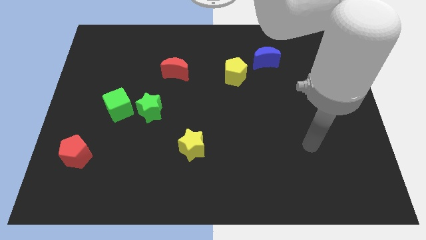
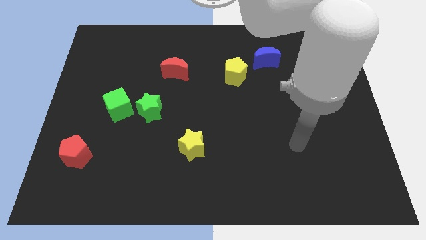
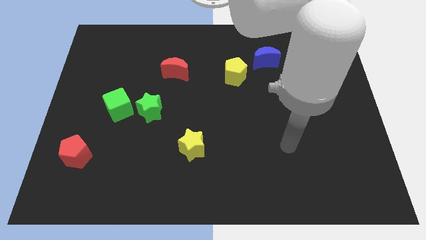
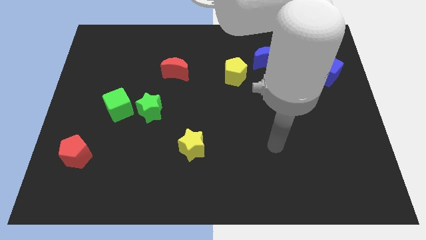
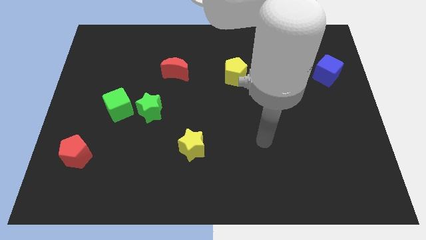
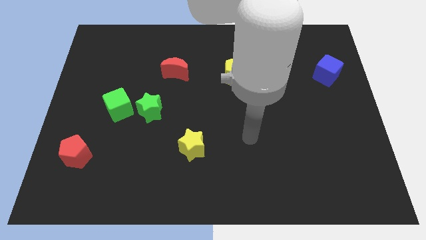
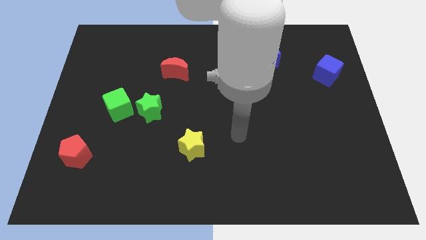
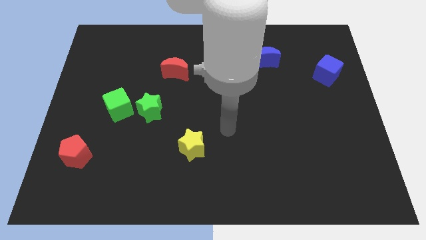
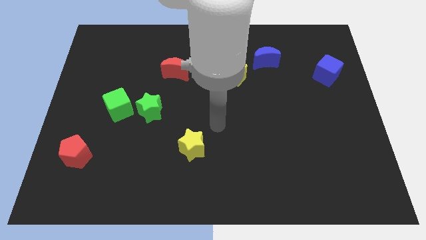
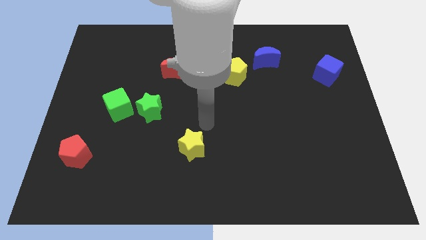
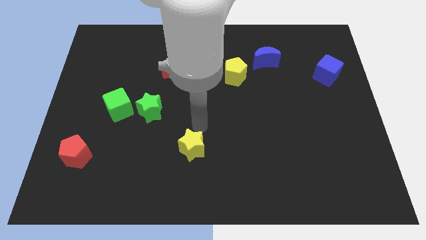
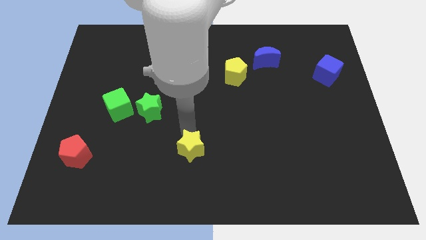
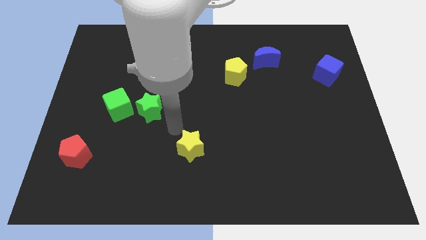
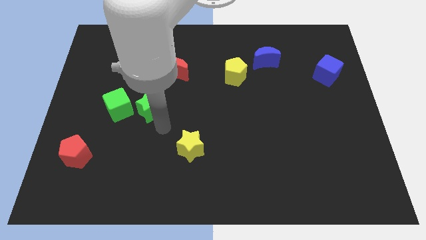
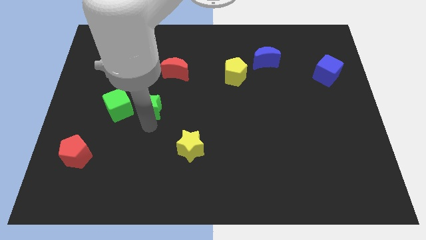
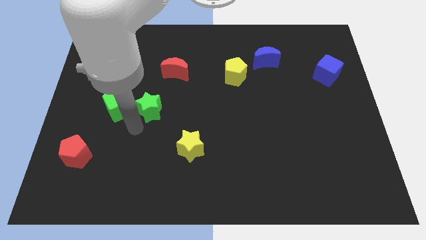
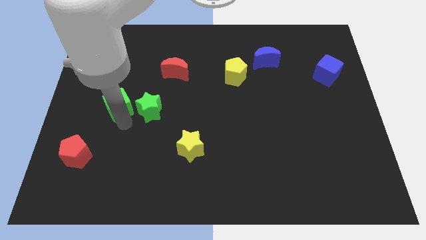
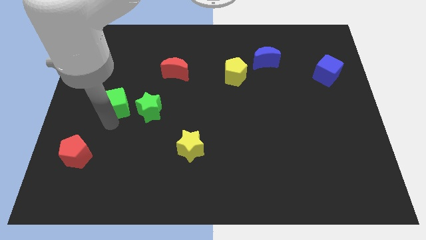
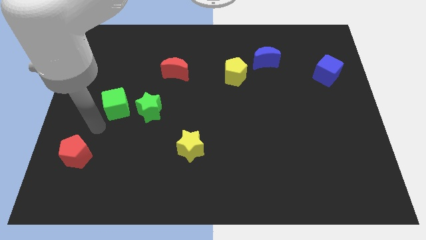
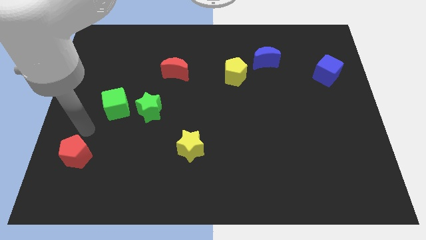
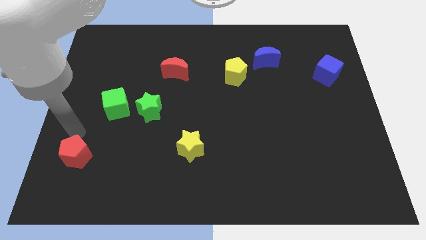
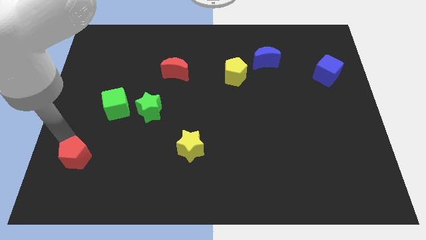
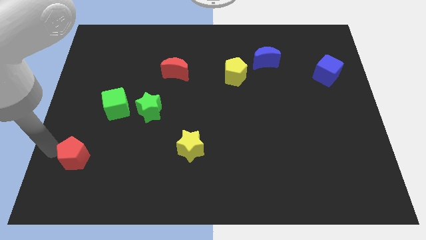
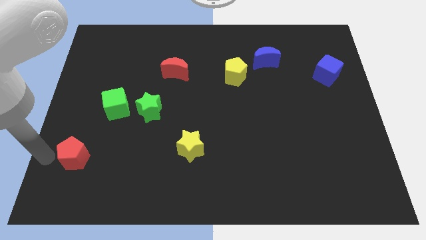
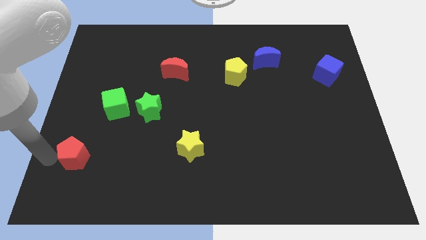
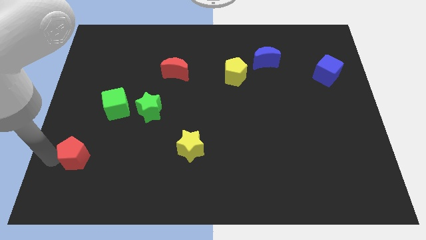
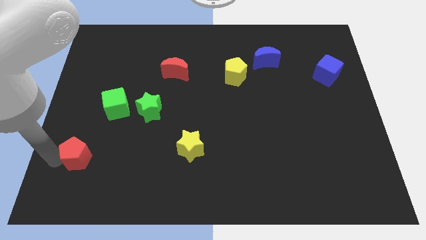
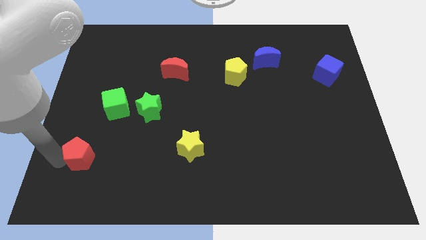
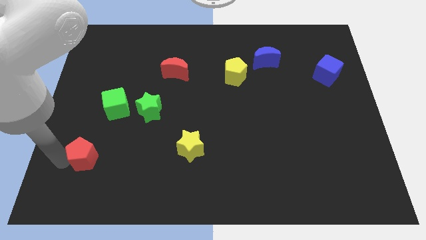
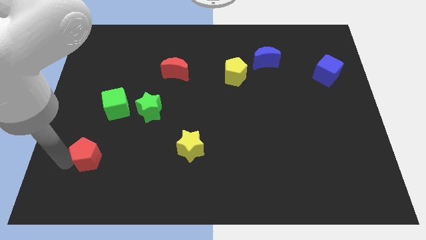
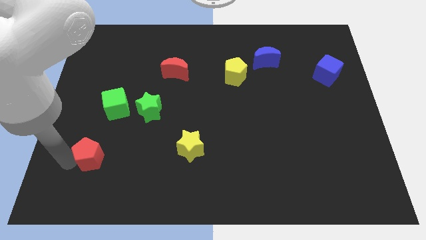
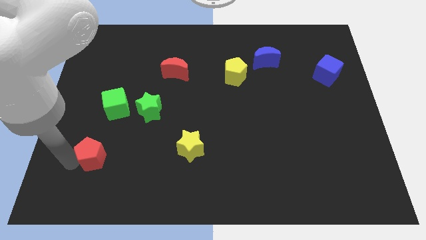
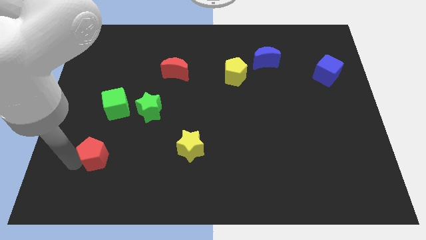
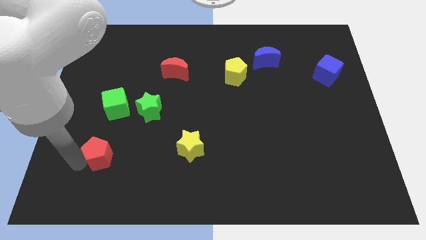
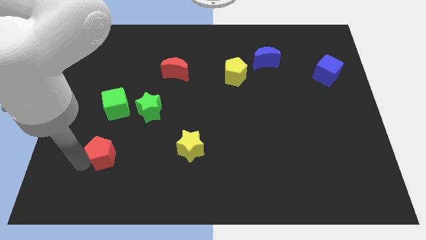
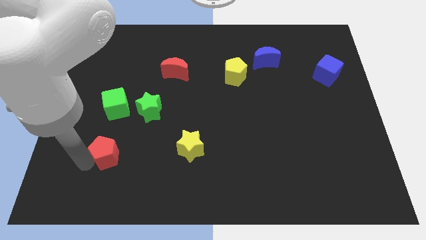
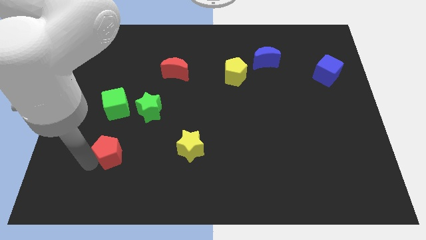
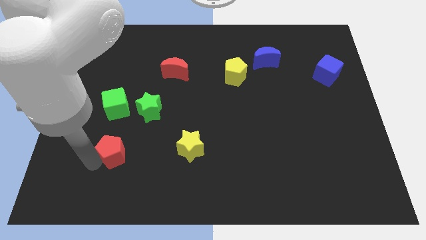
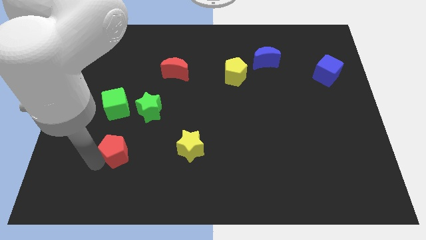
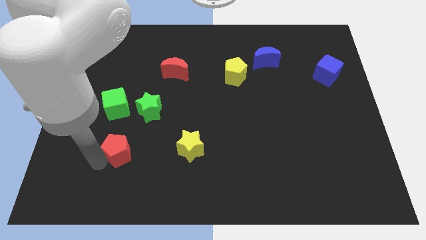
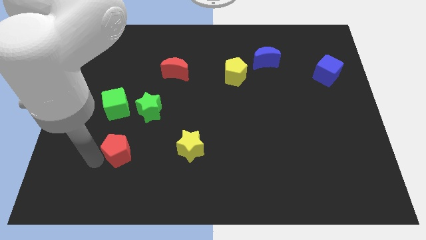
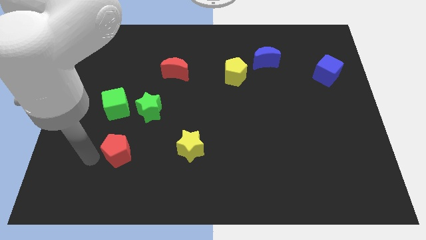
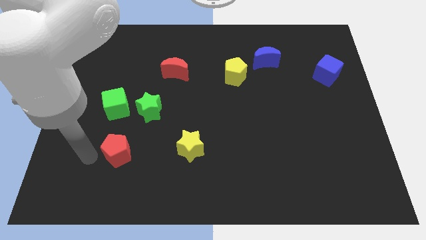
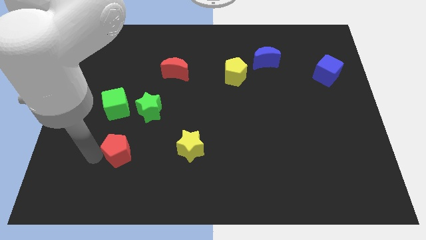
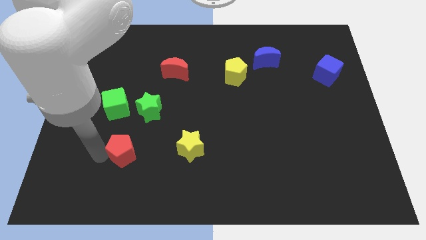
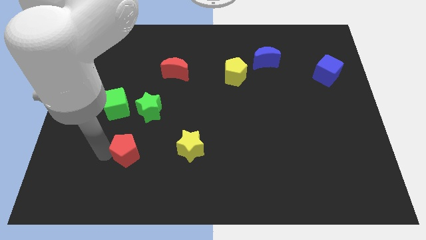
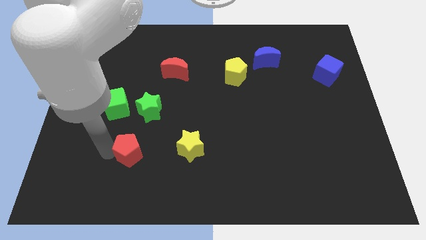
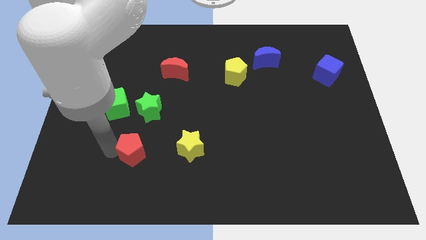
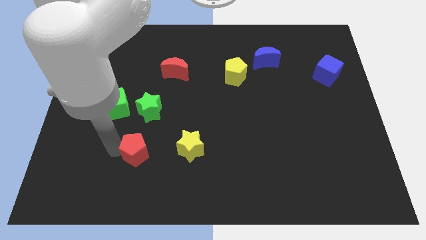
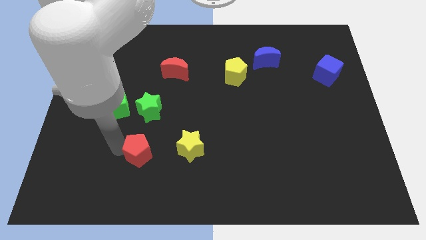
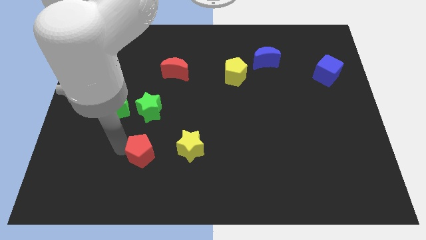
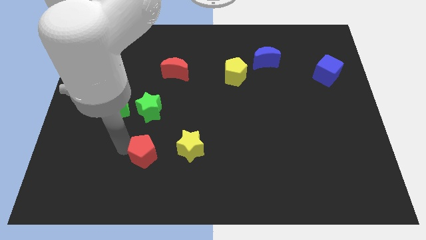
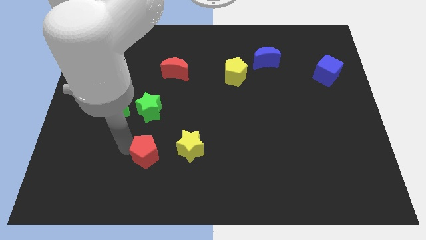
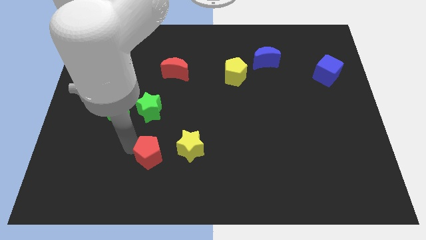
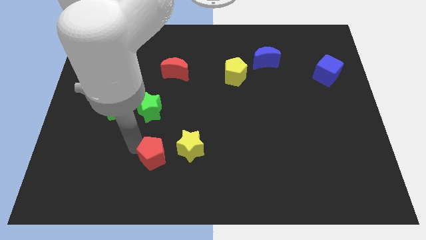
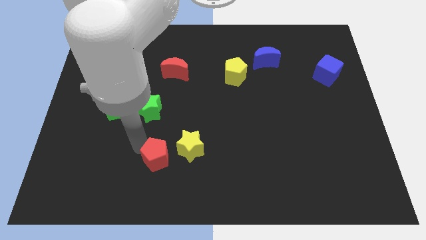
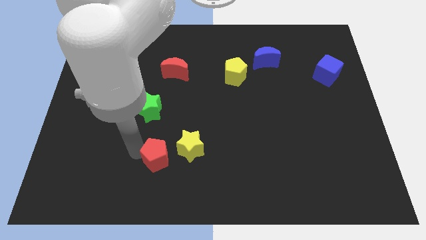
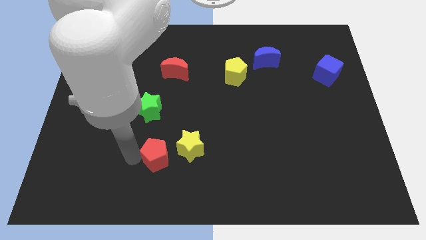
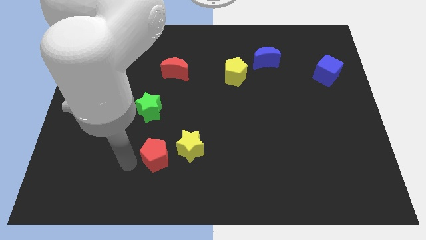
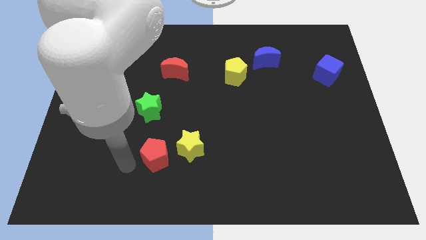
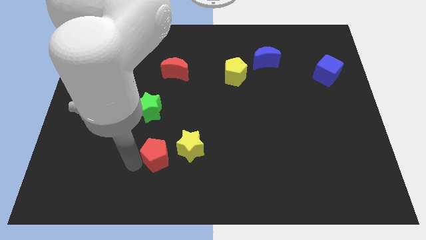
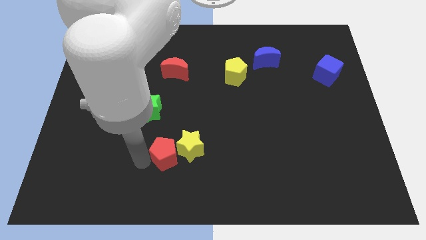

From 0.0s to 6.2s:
move the red pentagon to the yellow star

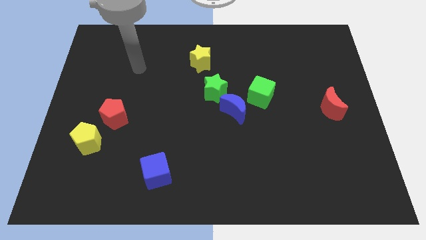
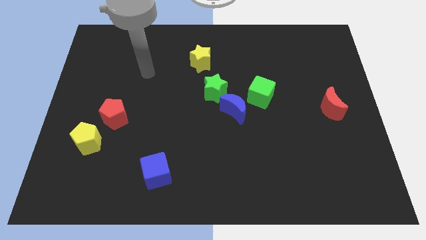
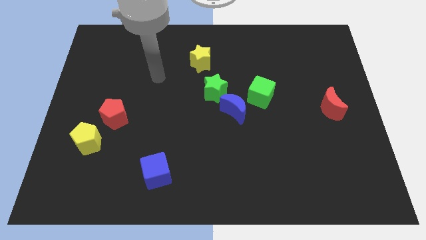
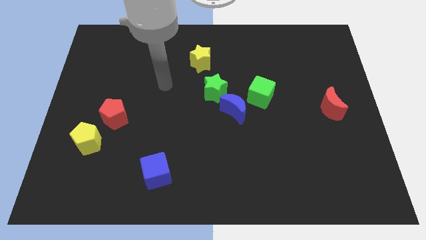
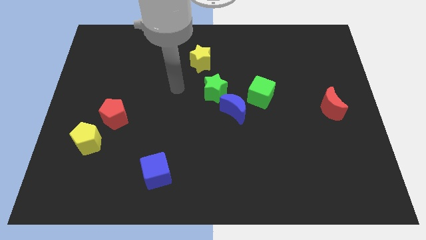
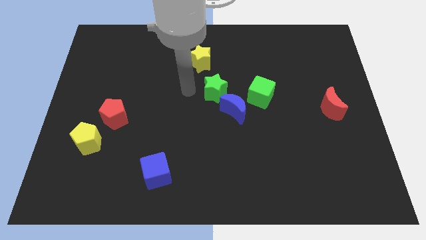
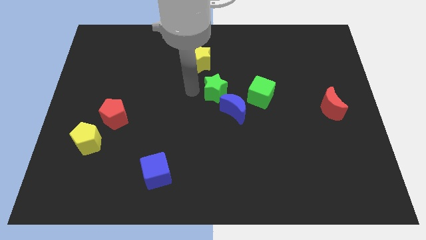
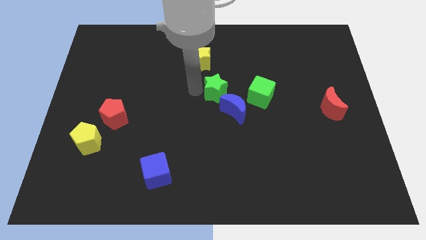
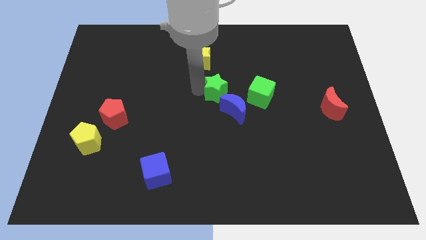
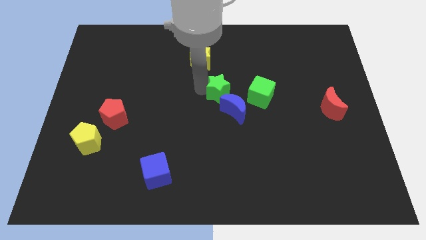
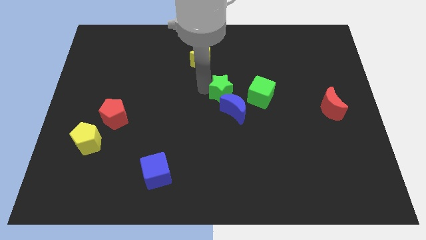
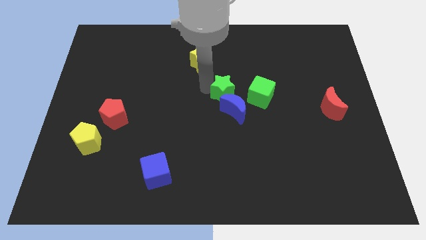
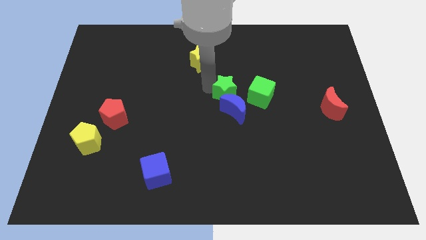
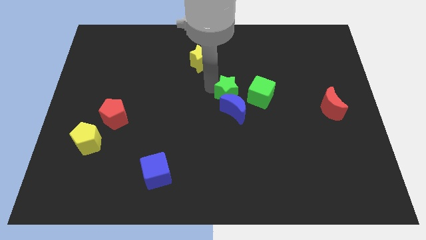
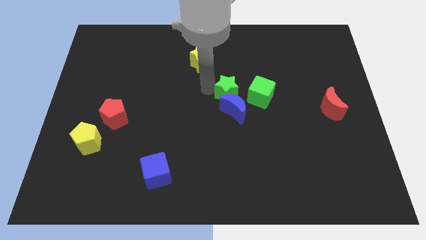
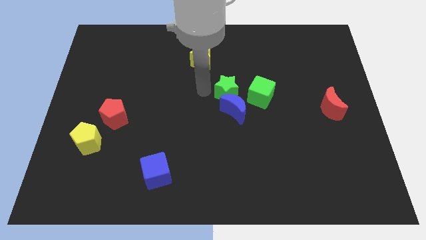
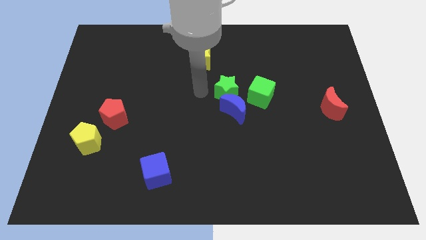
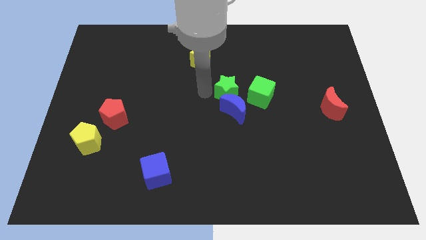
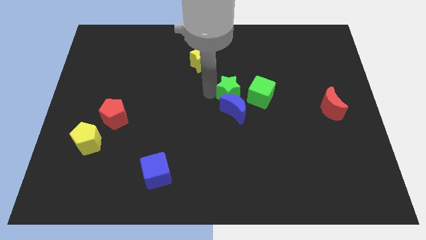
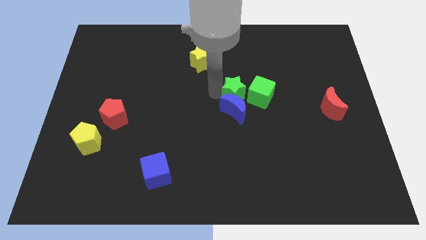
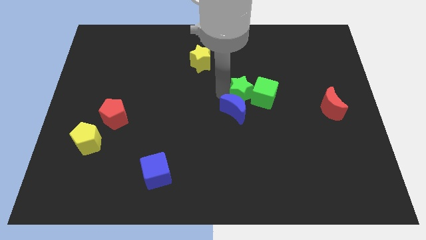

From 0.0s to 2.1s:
move the green star close to the green cube
